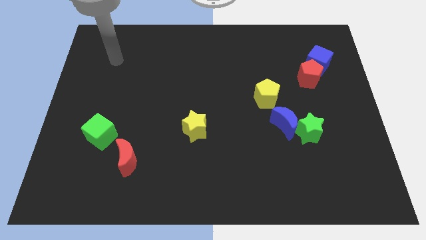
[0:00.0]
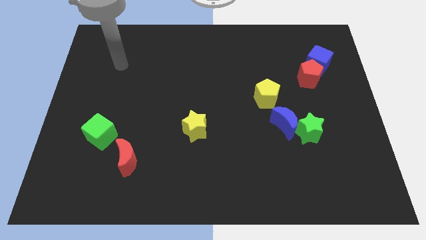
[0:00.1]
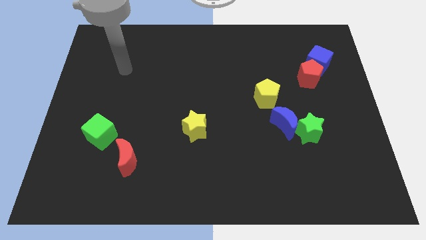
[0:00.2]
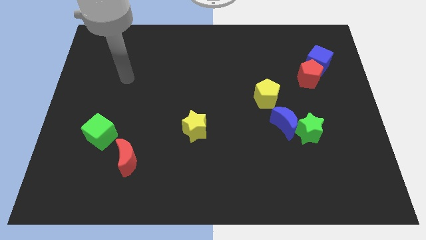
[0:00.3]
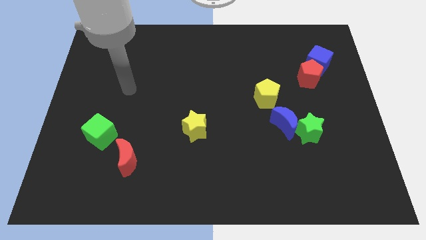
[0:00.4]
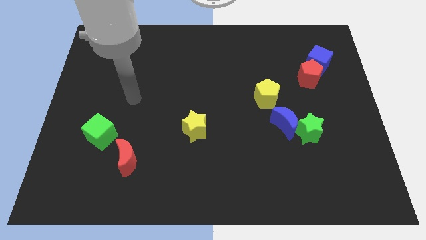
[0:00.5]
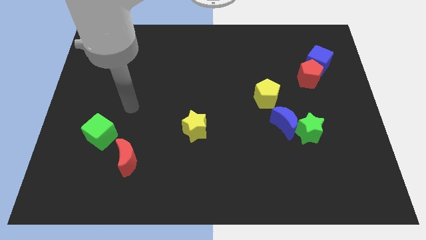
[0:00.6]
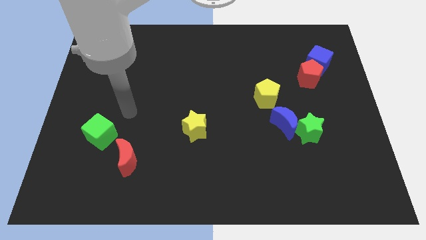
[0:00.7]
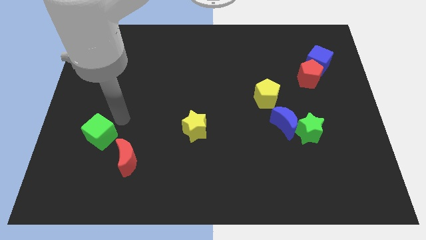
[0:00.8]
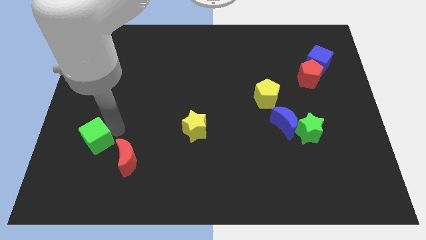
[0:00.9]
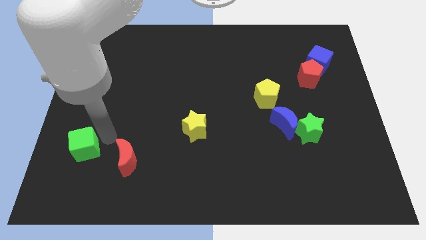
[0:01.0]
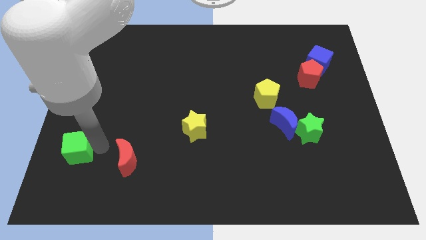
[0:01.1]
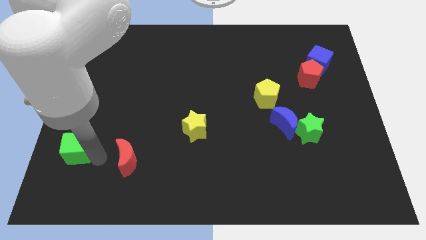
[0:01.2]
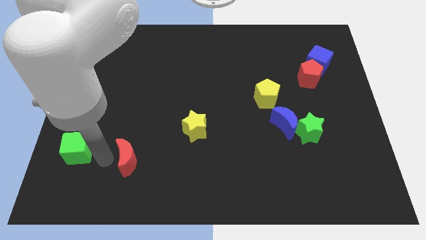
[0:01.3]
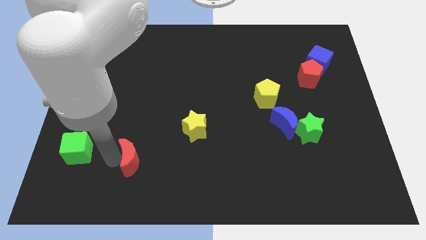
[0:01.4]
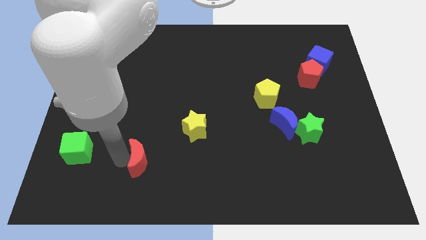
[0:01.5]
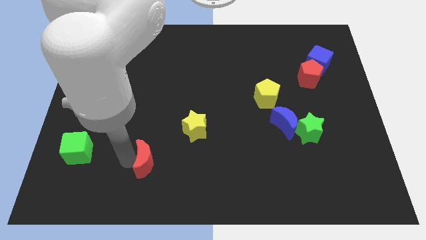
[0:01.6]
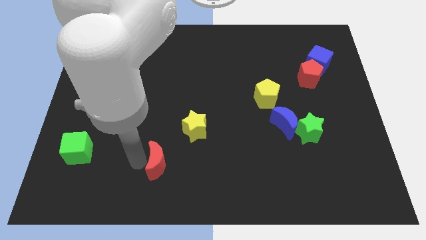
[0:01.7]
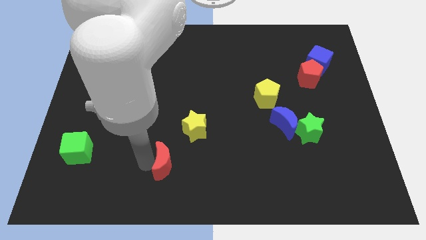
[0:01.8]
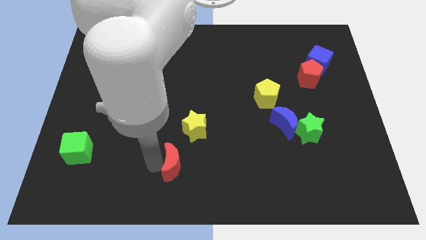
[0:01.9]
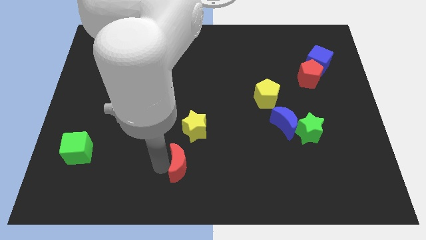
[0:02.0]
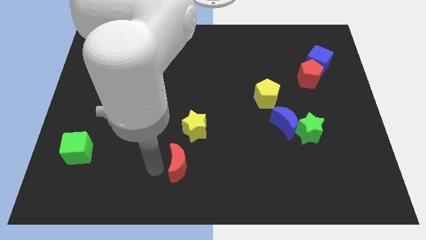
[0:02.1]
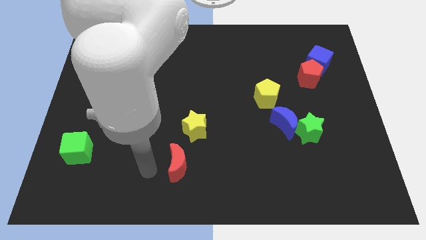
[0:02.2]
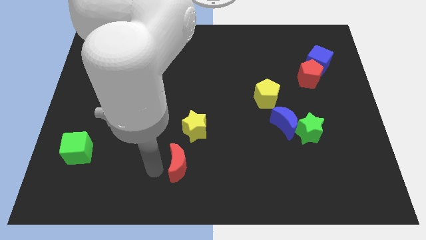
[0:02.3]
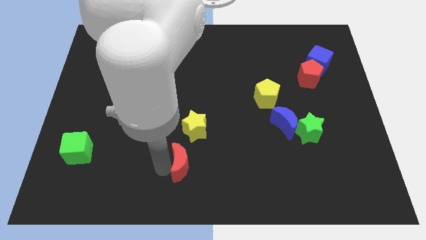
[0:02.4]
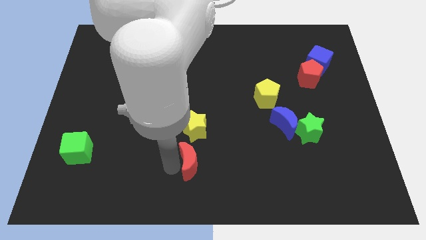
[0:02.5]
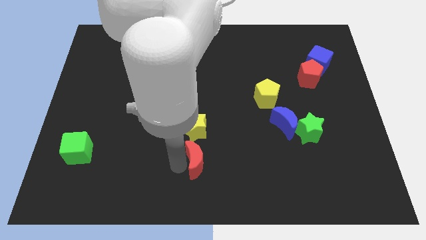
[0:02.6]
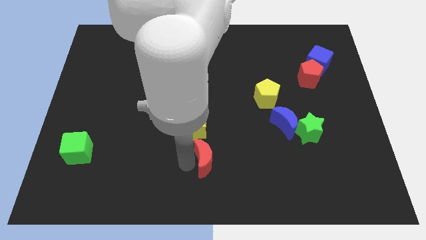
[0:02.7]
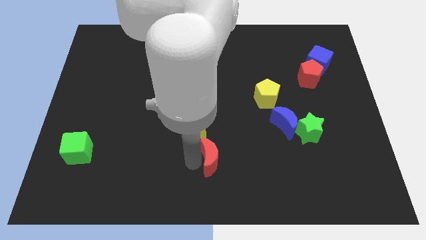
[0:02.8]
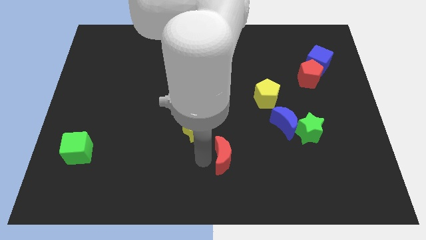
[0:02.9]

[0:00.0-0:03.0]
move the red moon right

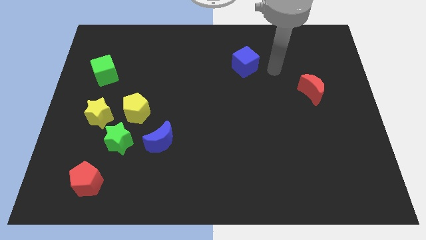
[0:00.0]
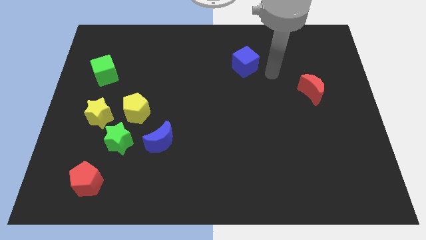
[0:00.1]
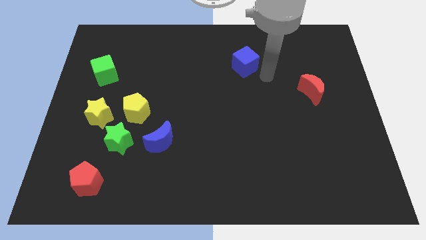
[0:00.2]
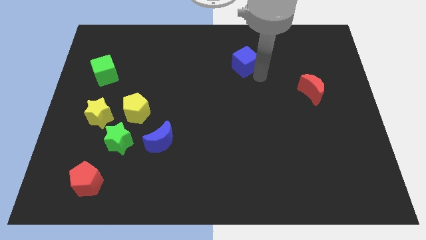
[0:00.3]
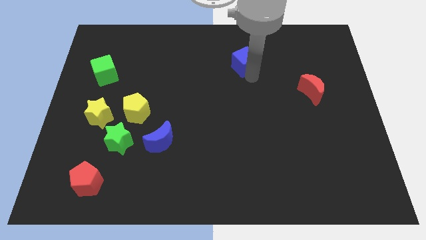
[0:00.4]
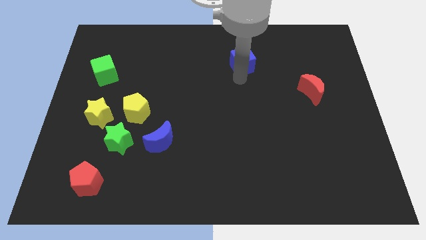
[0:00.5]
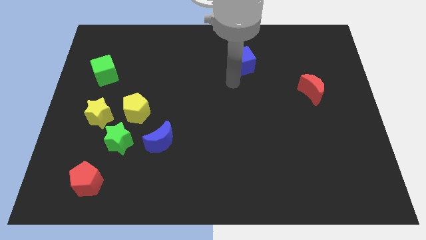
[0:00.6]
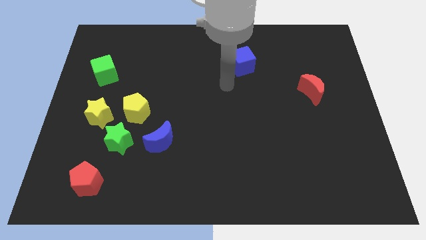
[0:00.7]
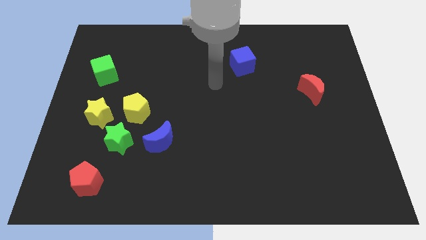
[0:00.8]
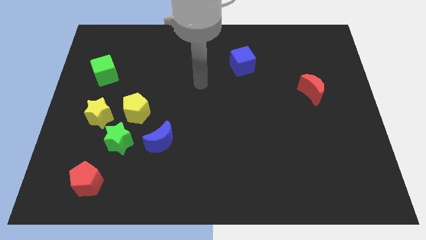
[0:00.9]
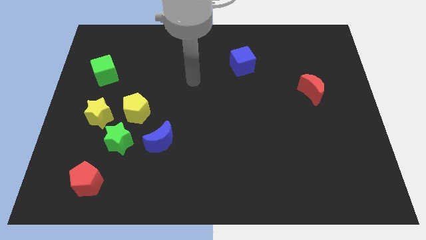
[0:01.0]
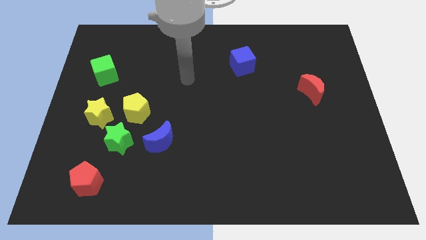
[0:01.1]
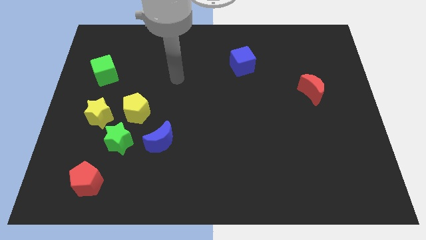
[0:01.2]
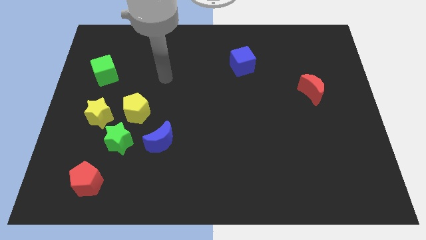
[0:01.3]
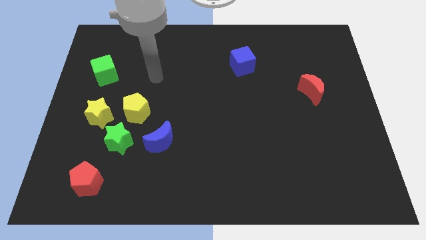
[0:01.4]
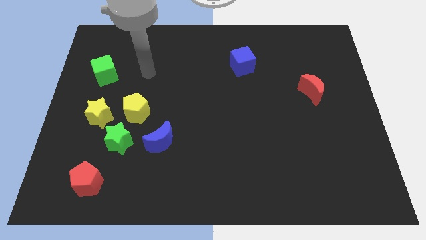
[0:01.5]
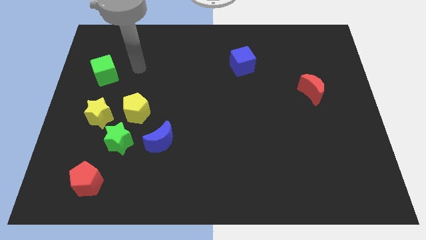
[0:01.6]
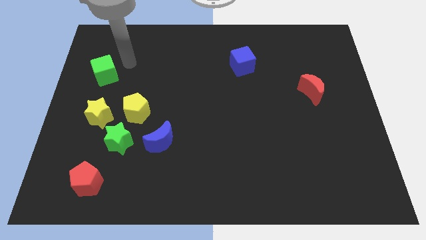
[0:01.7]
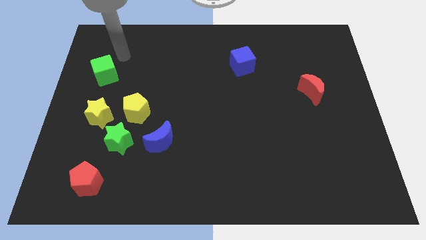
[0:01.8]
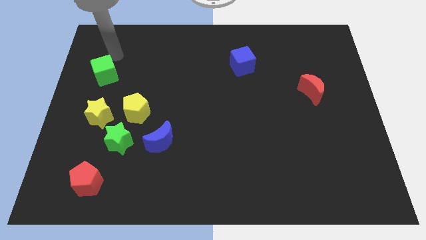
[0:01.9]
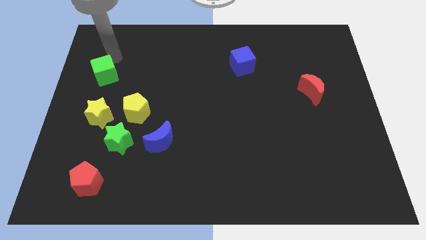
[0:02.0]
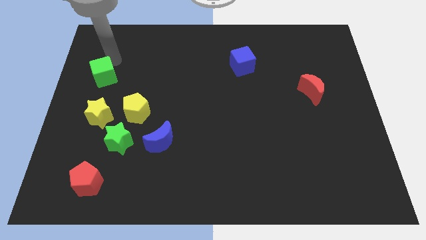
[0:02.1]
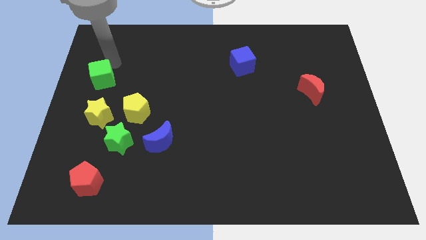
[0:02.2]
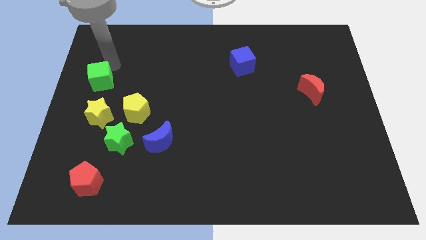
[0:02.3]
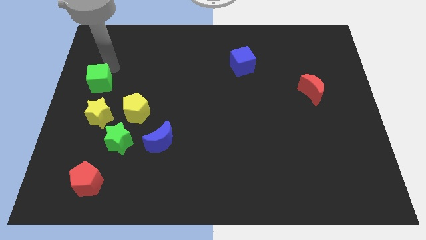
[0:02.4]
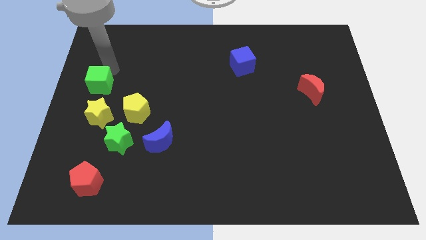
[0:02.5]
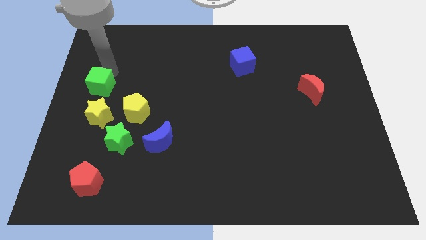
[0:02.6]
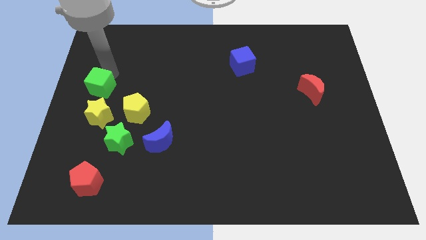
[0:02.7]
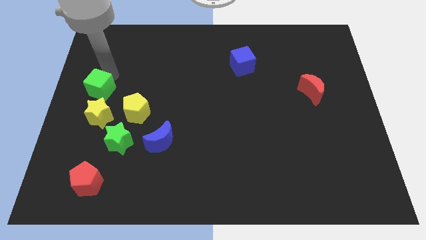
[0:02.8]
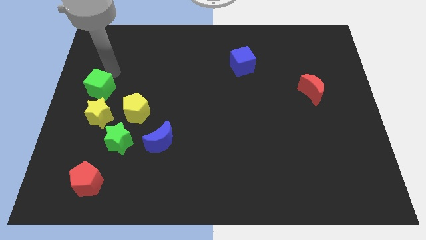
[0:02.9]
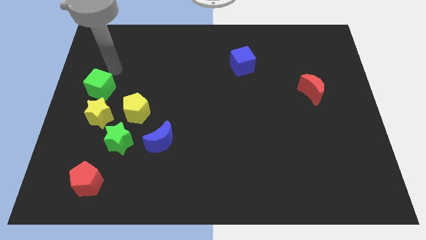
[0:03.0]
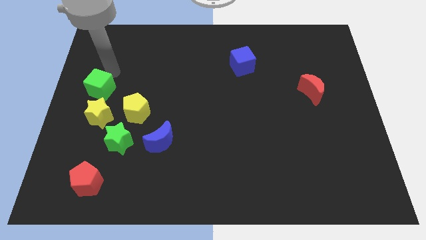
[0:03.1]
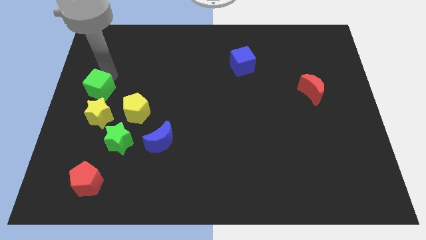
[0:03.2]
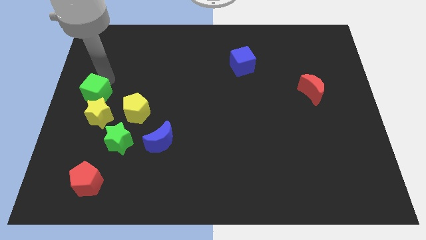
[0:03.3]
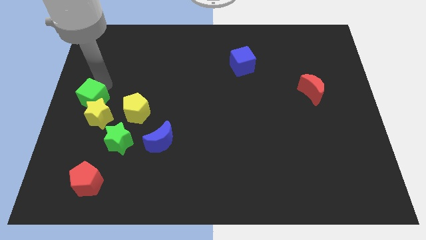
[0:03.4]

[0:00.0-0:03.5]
slightly push the green cube down

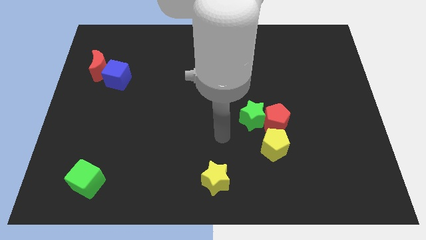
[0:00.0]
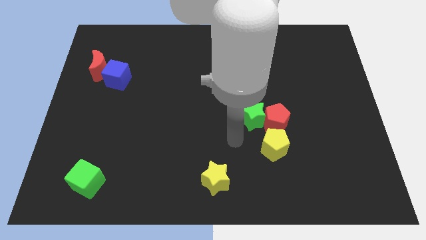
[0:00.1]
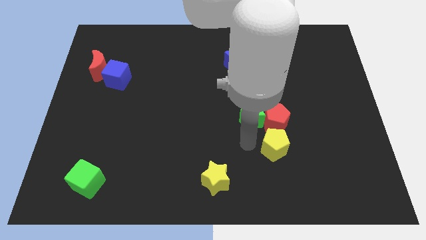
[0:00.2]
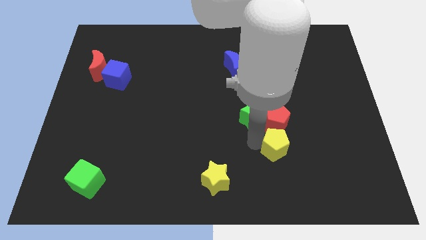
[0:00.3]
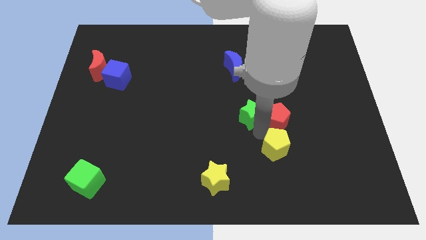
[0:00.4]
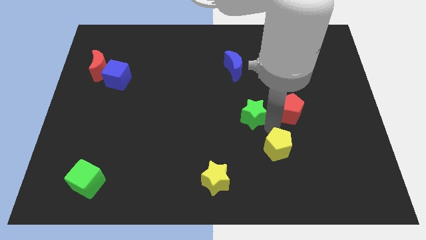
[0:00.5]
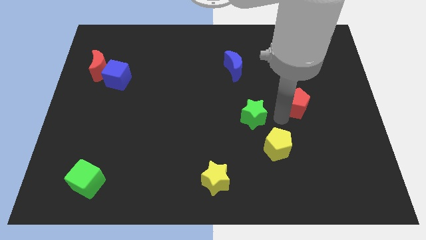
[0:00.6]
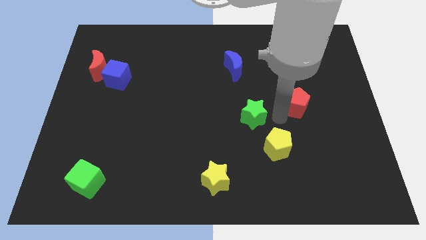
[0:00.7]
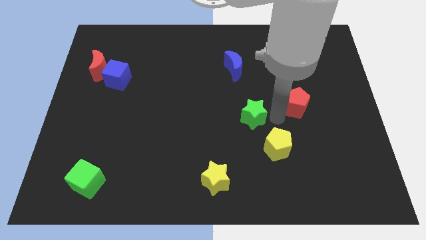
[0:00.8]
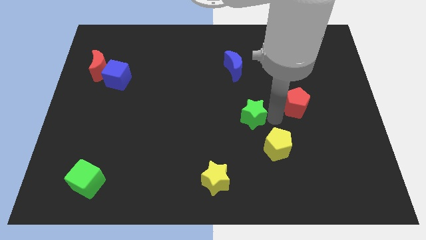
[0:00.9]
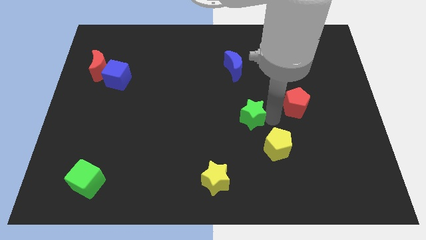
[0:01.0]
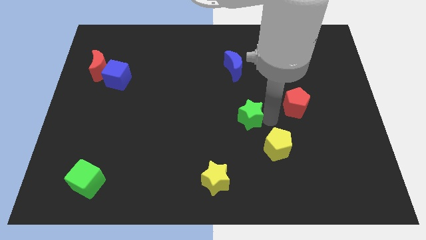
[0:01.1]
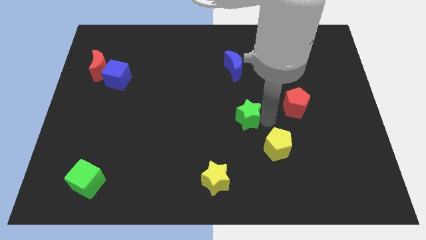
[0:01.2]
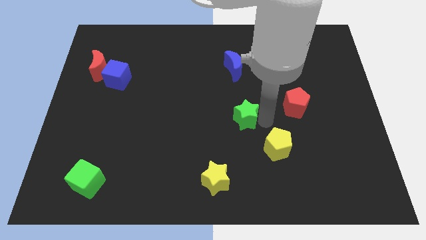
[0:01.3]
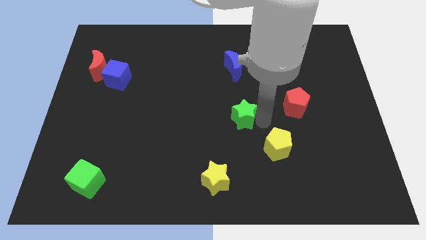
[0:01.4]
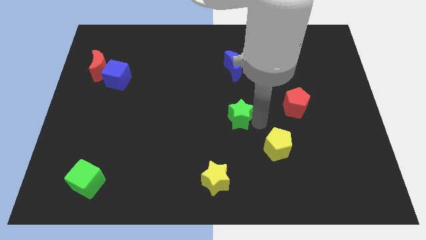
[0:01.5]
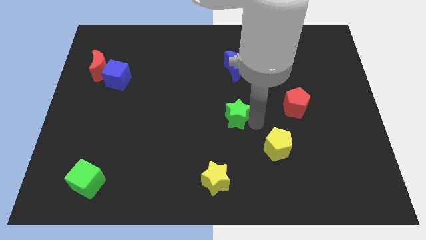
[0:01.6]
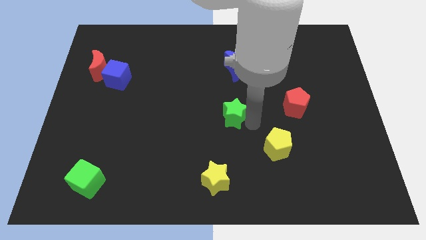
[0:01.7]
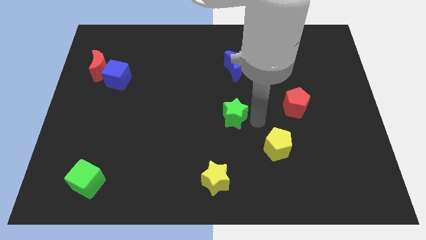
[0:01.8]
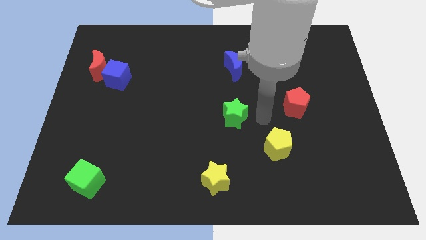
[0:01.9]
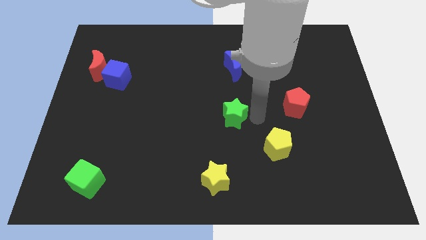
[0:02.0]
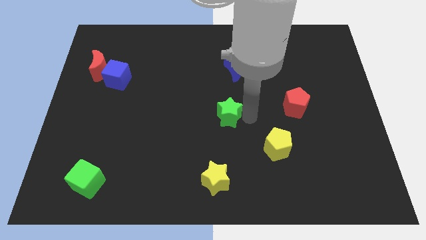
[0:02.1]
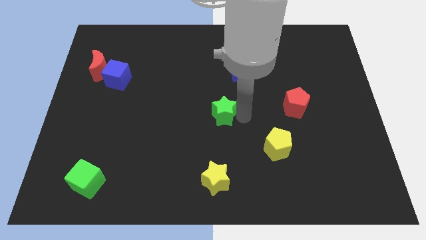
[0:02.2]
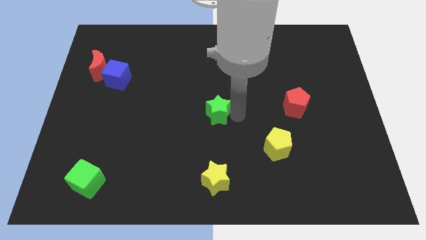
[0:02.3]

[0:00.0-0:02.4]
slightly push the green star to the left
